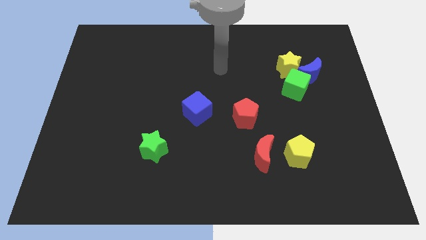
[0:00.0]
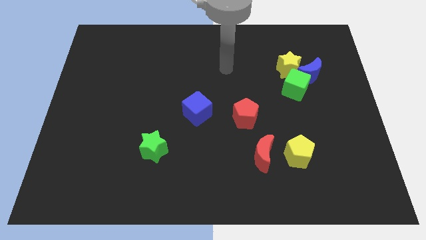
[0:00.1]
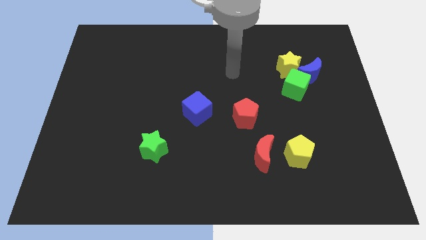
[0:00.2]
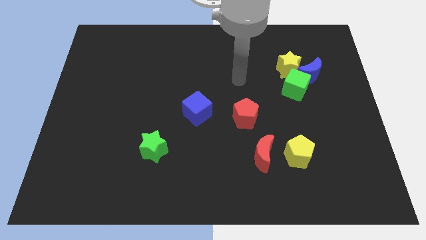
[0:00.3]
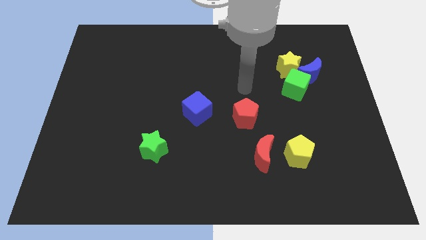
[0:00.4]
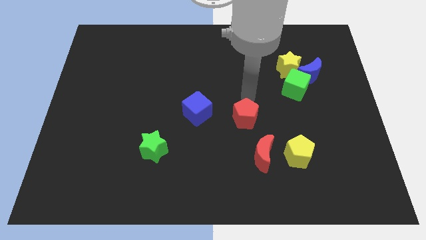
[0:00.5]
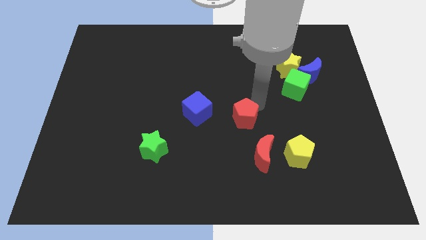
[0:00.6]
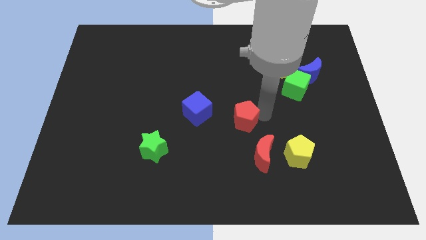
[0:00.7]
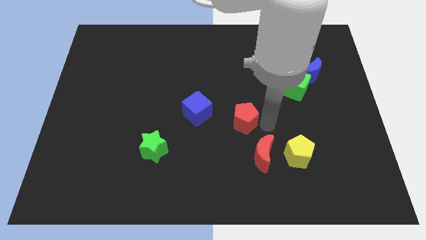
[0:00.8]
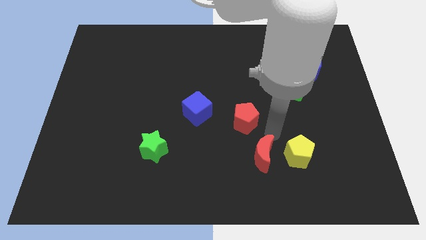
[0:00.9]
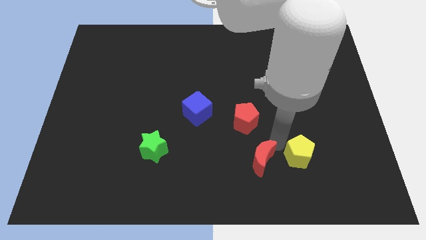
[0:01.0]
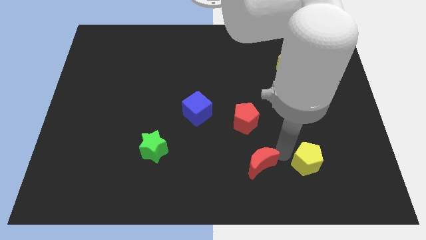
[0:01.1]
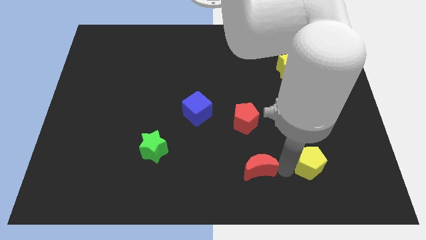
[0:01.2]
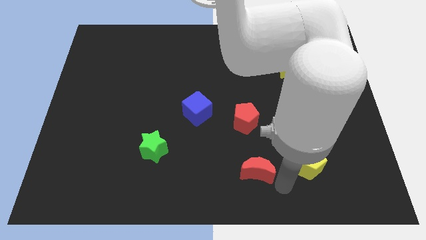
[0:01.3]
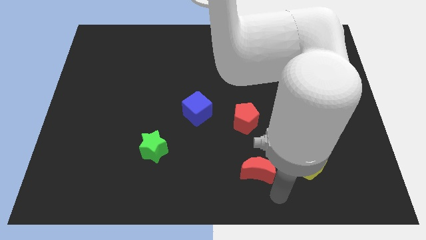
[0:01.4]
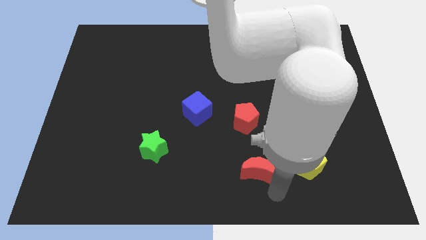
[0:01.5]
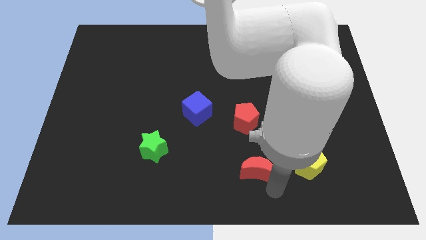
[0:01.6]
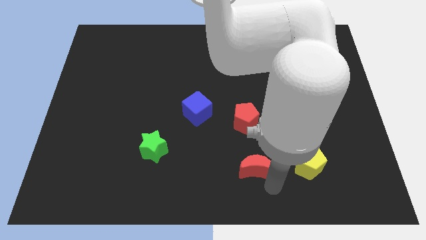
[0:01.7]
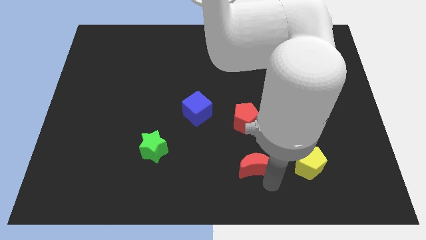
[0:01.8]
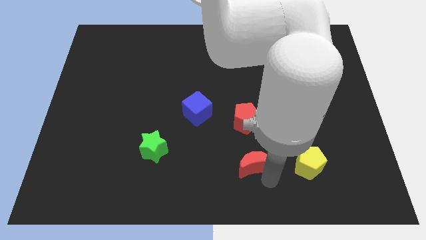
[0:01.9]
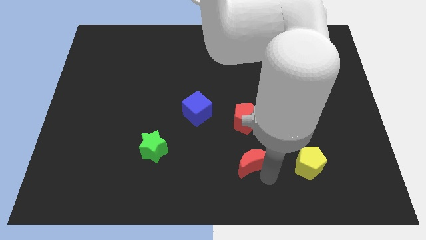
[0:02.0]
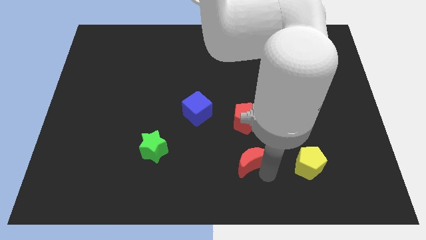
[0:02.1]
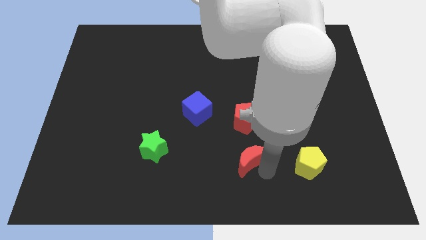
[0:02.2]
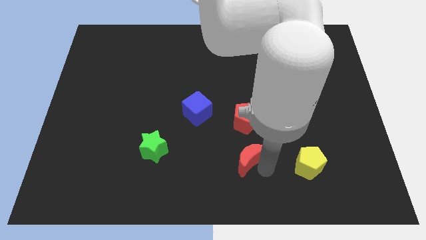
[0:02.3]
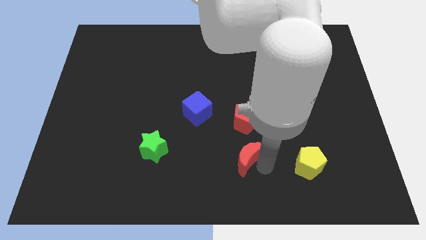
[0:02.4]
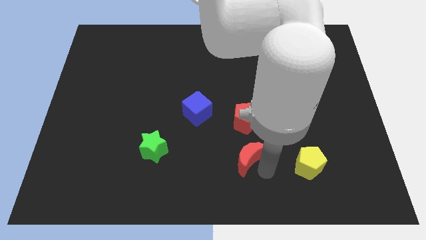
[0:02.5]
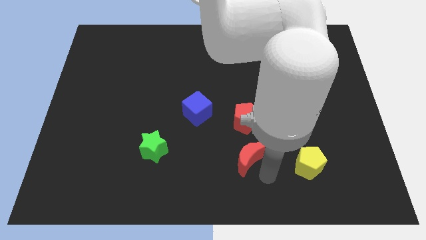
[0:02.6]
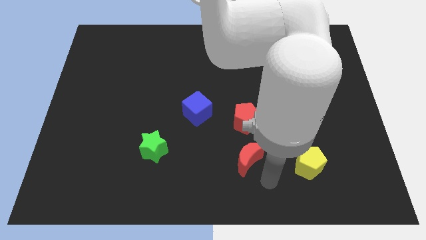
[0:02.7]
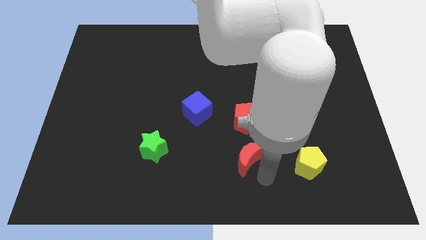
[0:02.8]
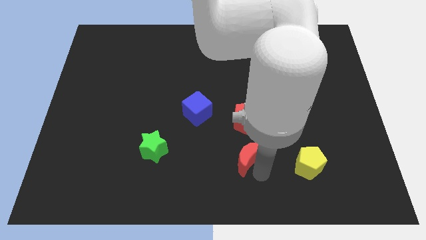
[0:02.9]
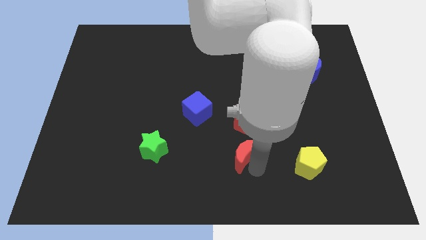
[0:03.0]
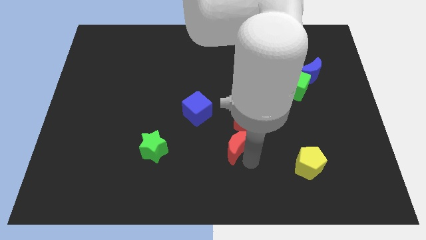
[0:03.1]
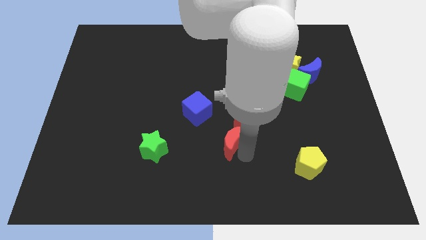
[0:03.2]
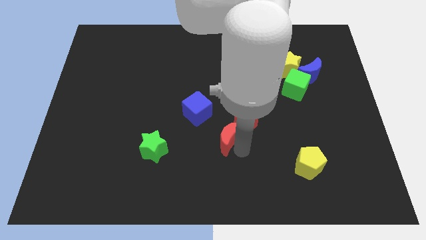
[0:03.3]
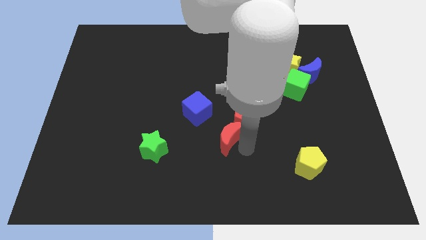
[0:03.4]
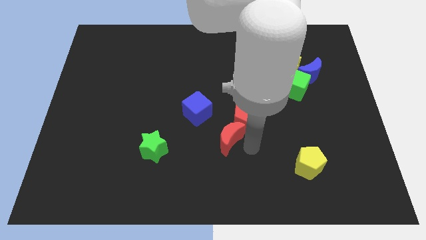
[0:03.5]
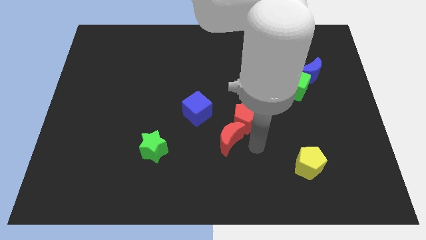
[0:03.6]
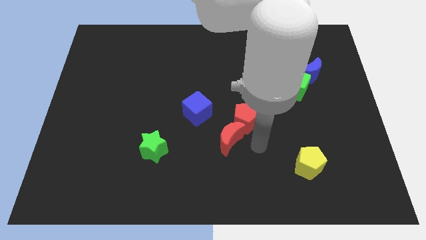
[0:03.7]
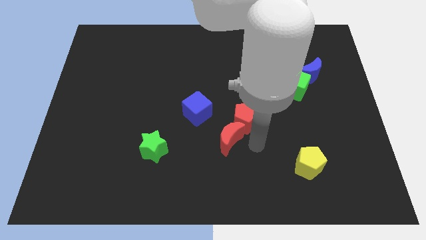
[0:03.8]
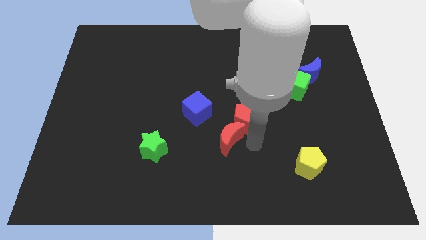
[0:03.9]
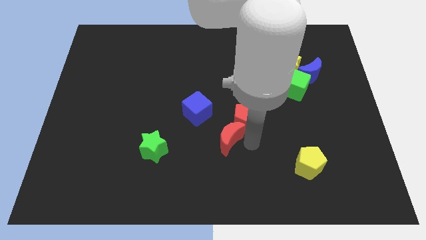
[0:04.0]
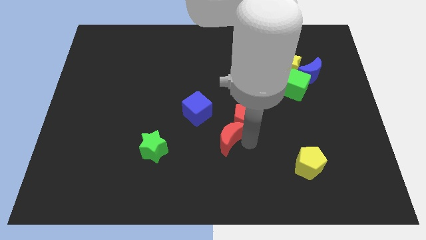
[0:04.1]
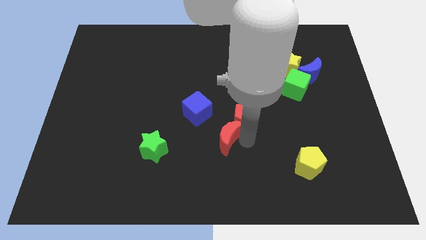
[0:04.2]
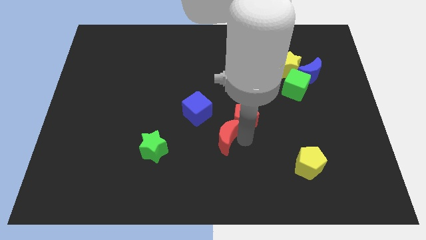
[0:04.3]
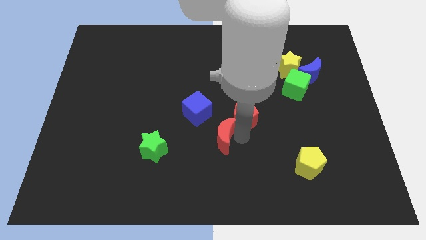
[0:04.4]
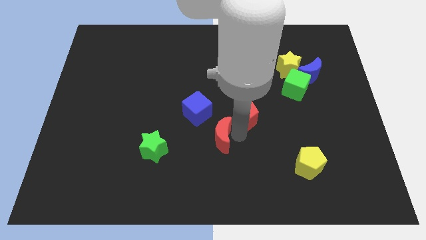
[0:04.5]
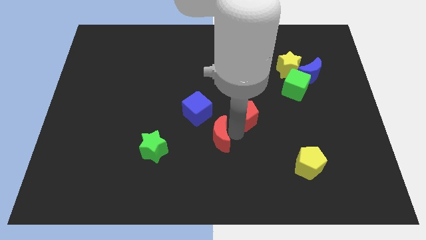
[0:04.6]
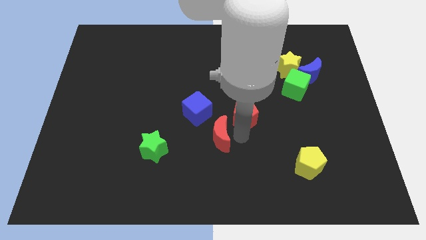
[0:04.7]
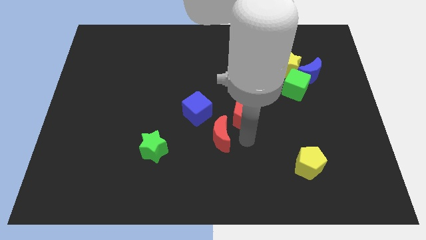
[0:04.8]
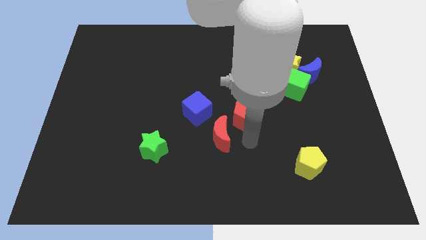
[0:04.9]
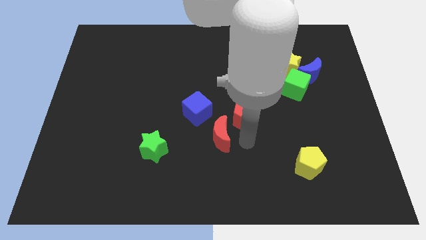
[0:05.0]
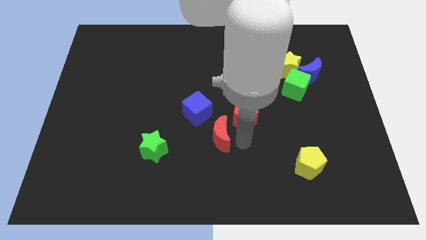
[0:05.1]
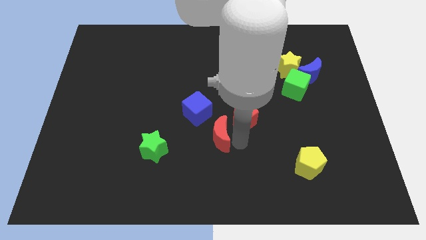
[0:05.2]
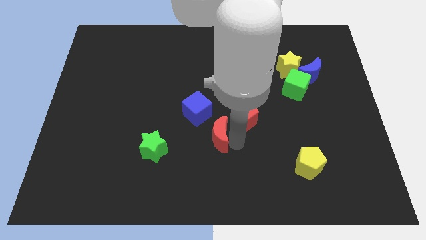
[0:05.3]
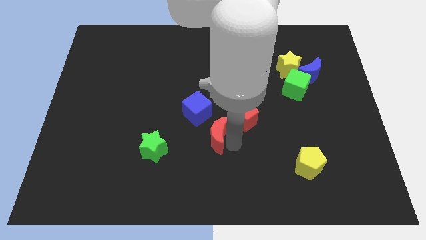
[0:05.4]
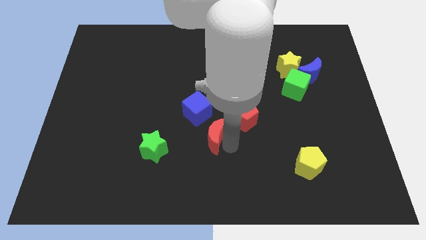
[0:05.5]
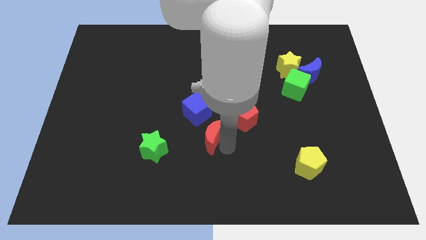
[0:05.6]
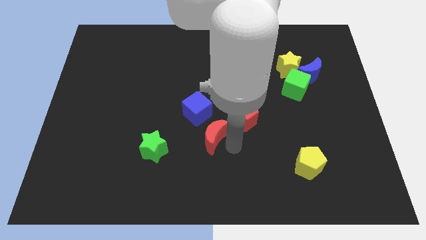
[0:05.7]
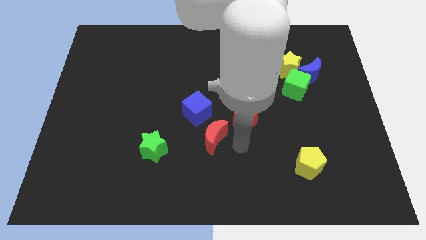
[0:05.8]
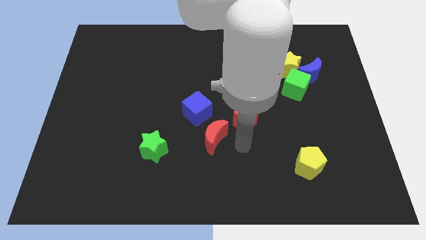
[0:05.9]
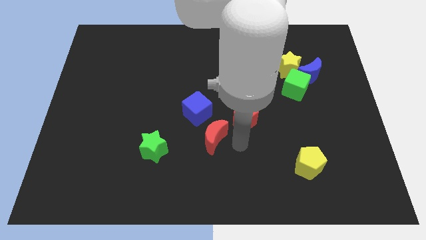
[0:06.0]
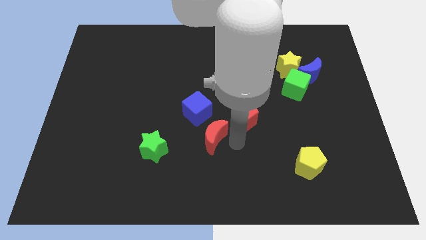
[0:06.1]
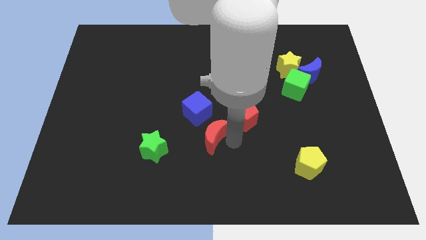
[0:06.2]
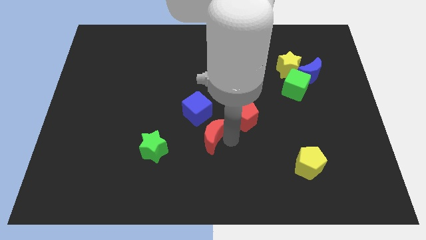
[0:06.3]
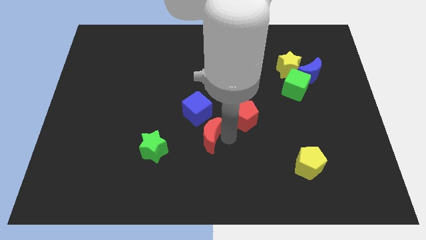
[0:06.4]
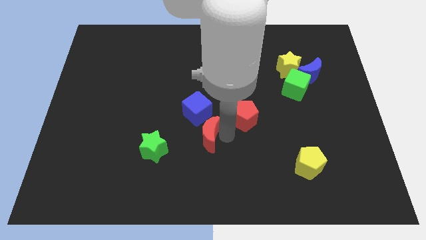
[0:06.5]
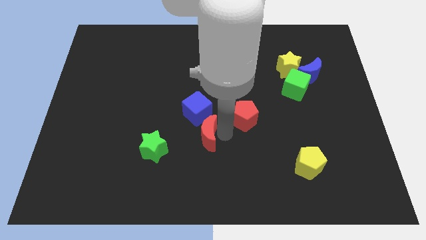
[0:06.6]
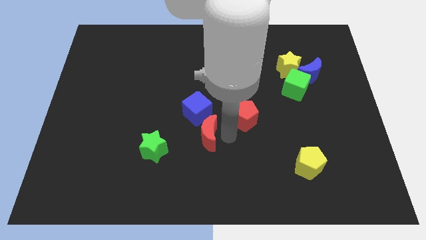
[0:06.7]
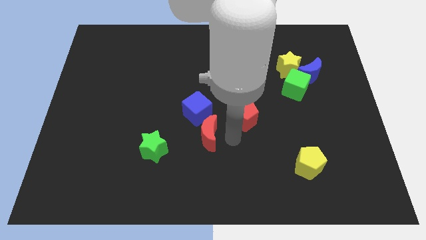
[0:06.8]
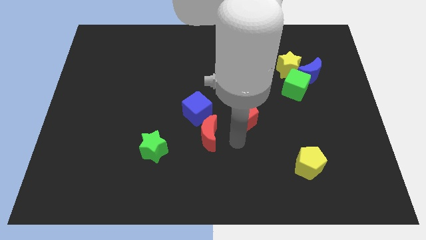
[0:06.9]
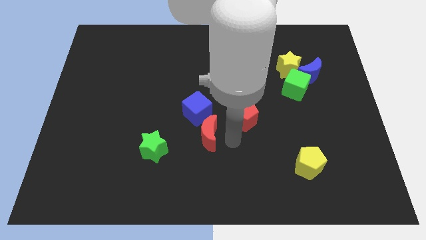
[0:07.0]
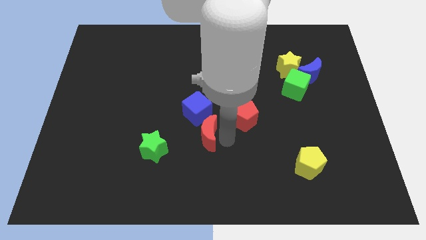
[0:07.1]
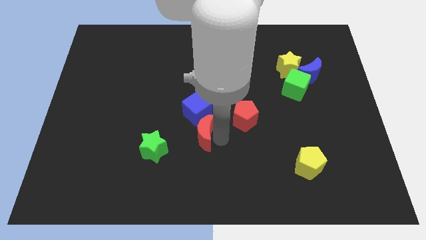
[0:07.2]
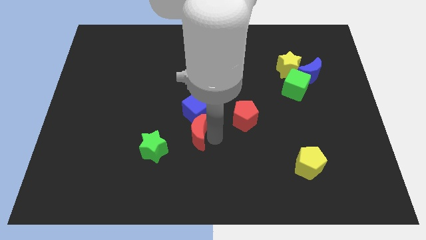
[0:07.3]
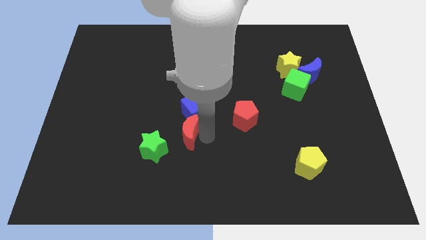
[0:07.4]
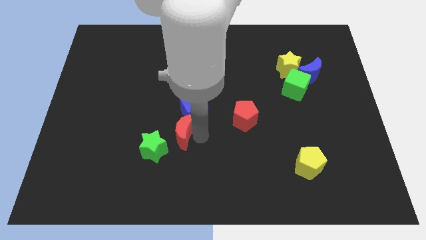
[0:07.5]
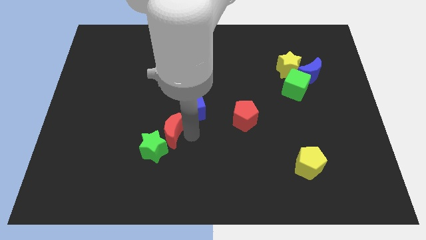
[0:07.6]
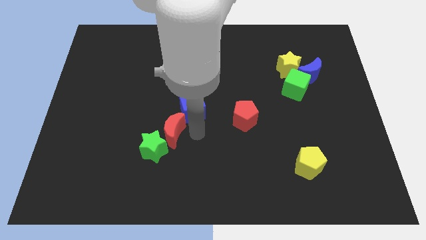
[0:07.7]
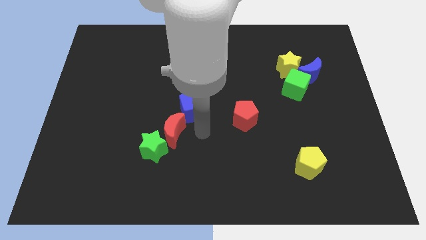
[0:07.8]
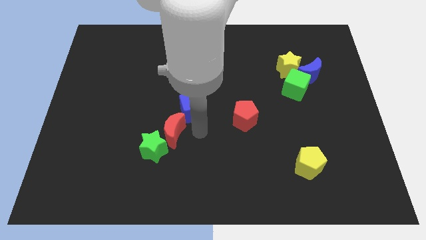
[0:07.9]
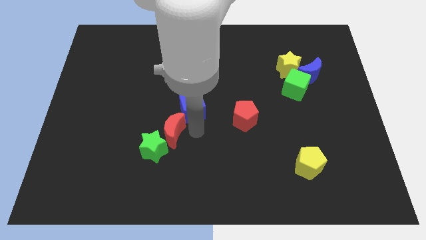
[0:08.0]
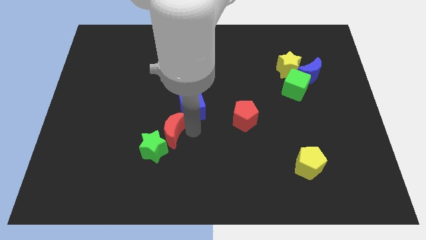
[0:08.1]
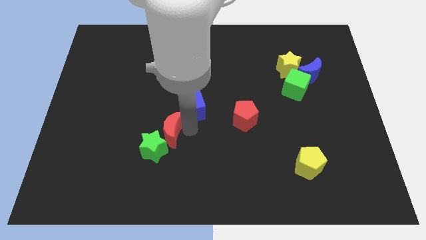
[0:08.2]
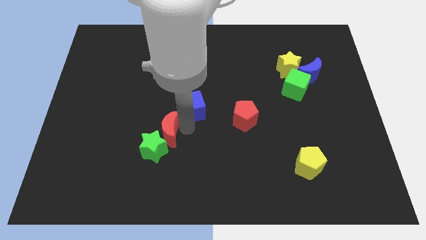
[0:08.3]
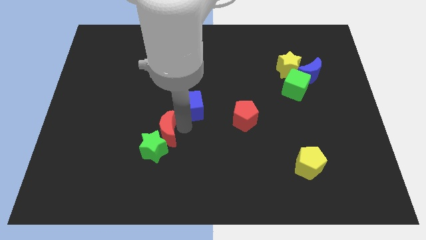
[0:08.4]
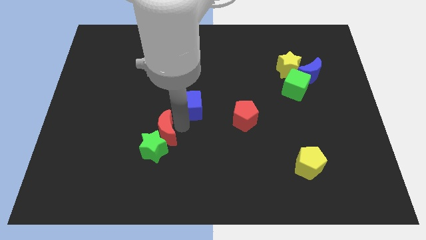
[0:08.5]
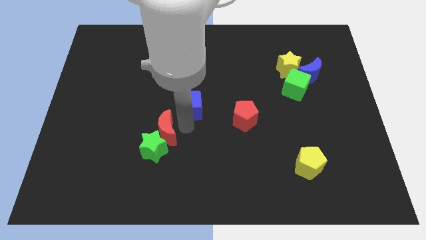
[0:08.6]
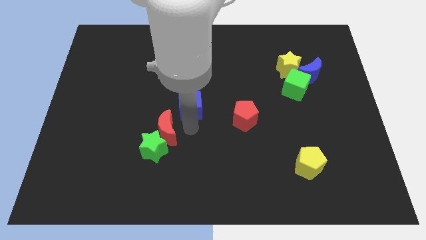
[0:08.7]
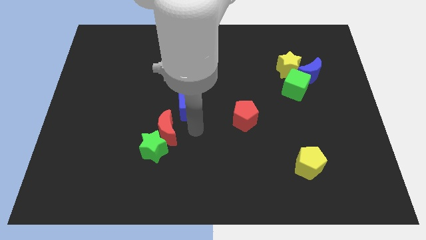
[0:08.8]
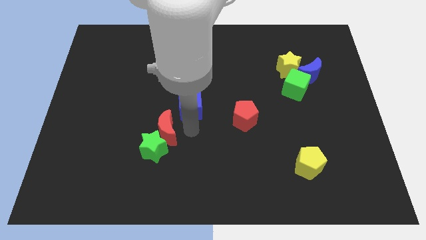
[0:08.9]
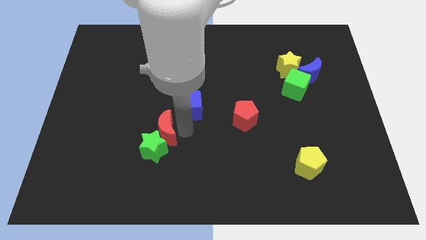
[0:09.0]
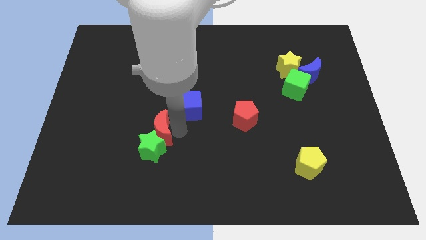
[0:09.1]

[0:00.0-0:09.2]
slide the red moon to the left
